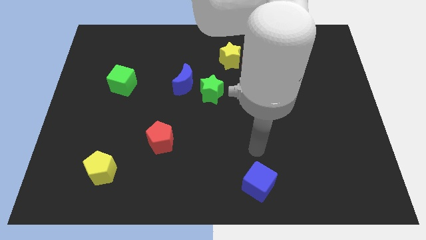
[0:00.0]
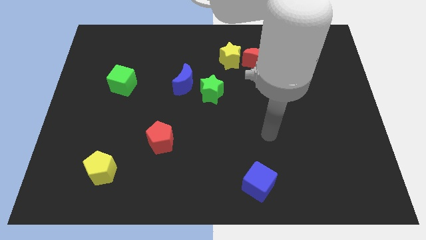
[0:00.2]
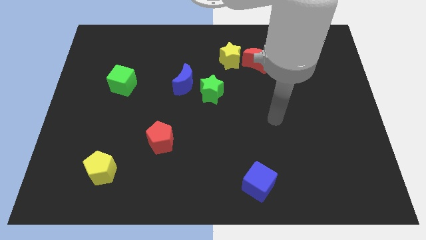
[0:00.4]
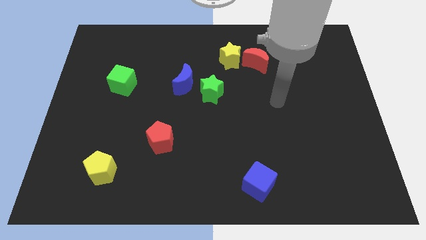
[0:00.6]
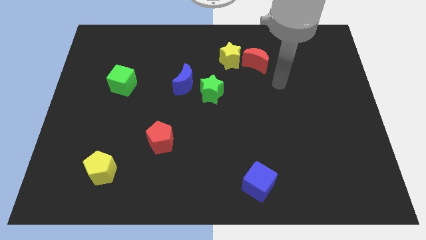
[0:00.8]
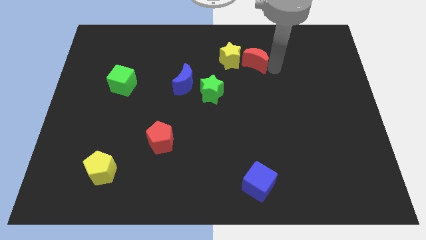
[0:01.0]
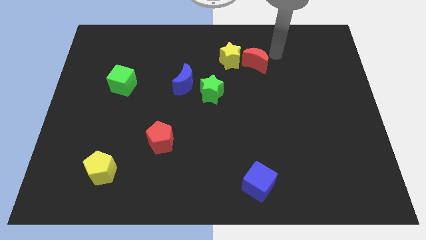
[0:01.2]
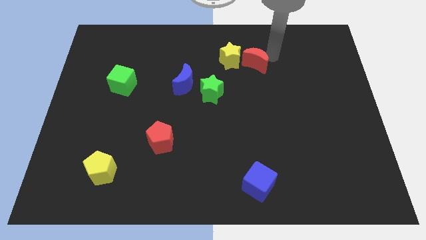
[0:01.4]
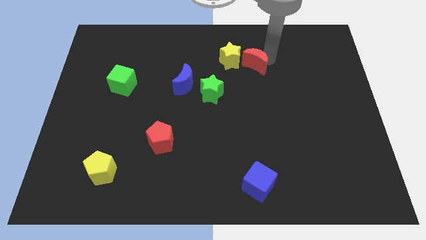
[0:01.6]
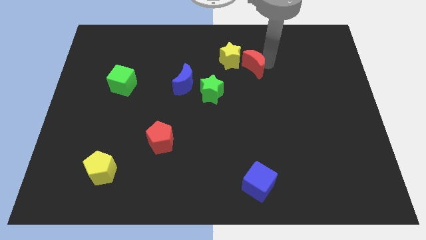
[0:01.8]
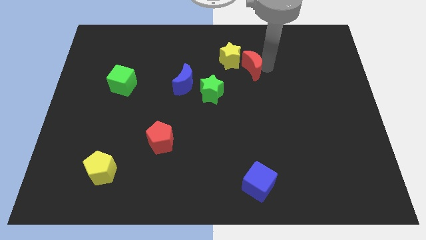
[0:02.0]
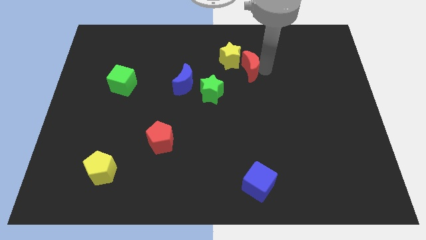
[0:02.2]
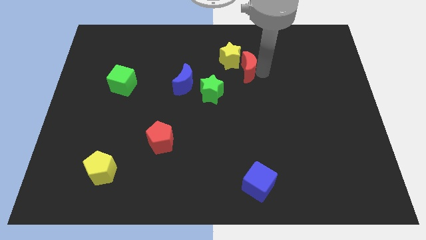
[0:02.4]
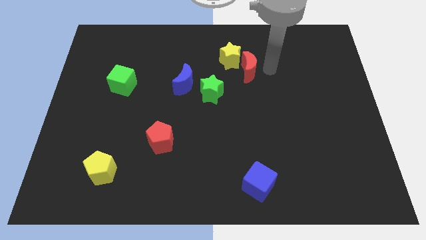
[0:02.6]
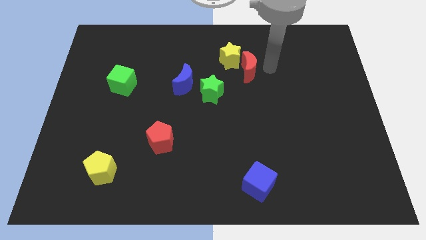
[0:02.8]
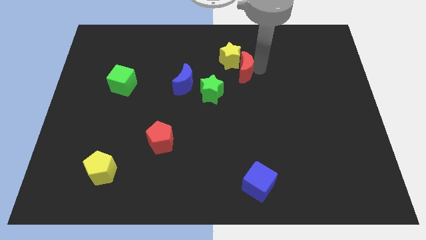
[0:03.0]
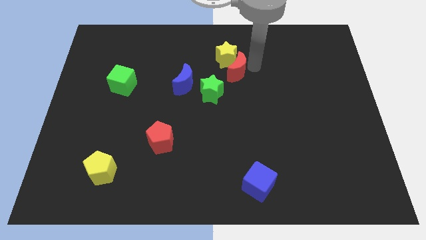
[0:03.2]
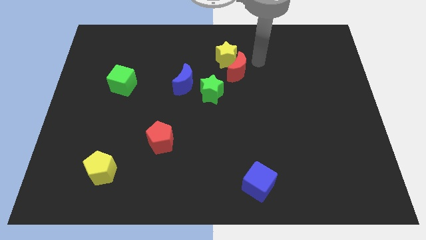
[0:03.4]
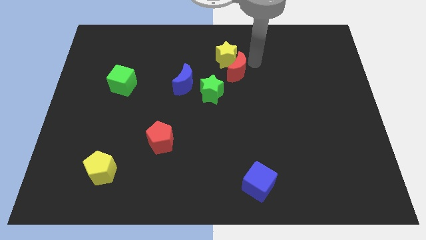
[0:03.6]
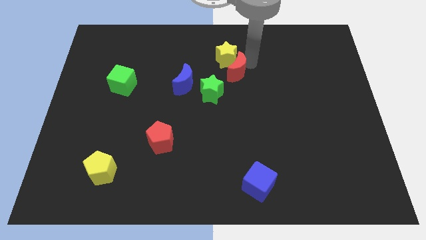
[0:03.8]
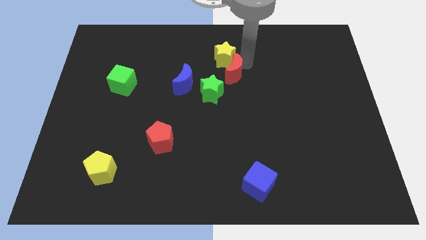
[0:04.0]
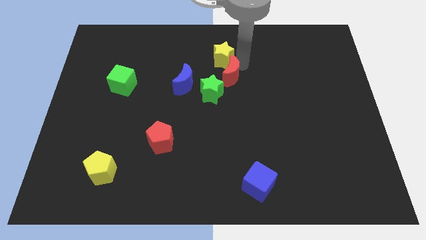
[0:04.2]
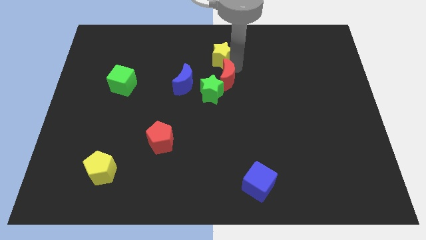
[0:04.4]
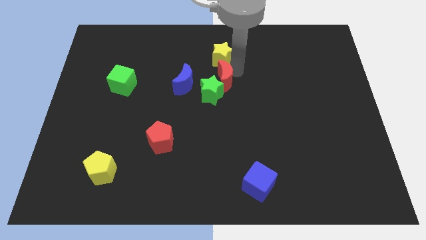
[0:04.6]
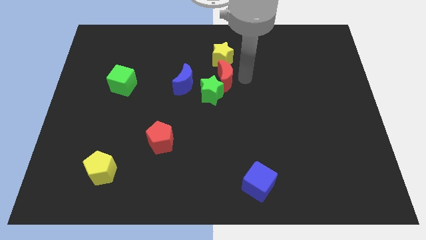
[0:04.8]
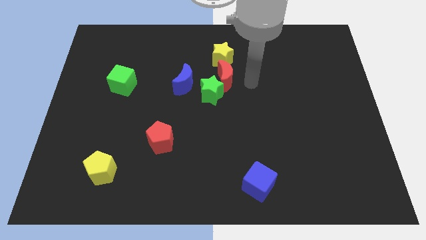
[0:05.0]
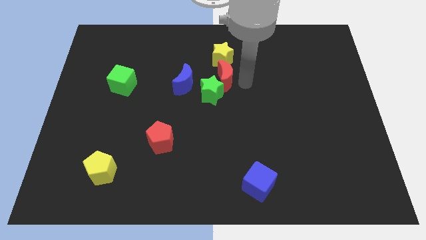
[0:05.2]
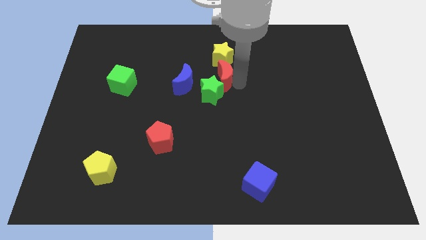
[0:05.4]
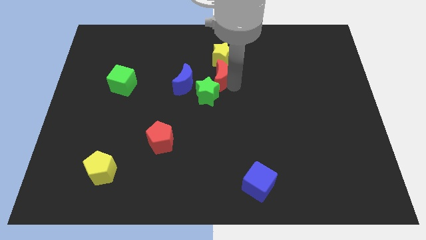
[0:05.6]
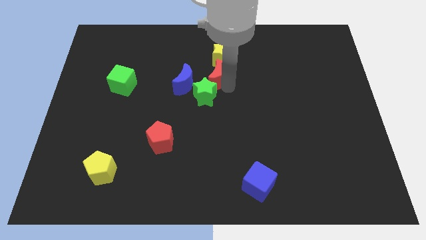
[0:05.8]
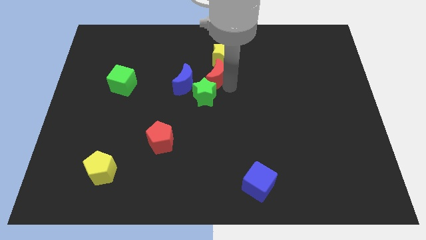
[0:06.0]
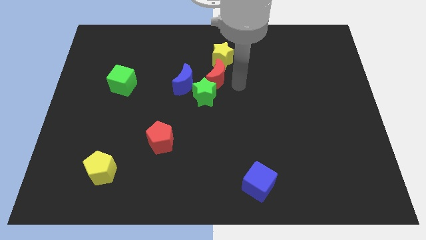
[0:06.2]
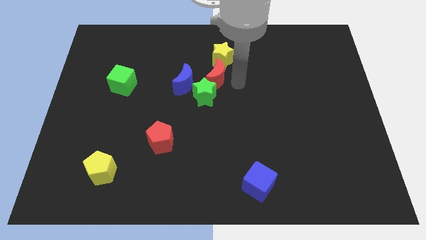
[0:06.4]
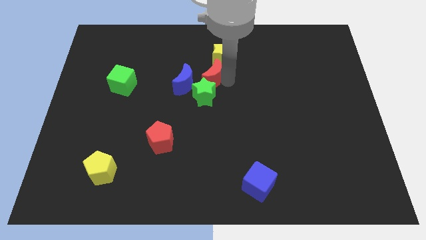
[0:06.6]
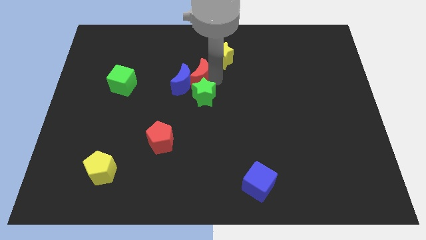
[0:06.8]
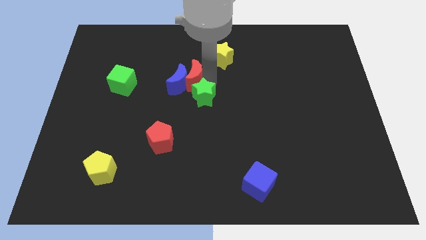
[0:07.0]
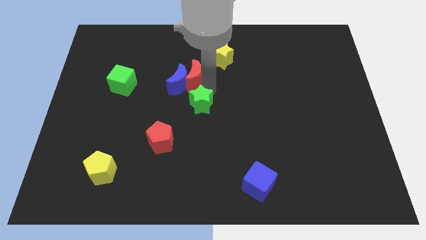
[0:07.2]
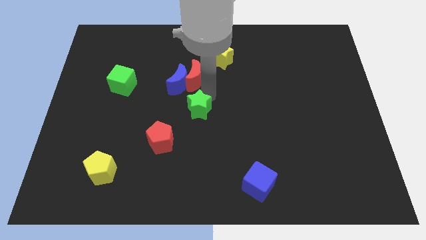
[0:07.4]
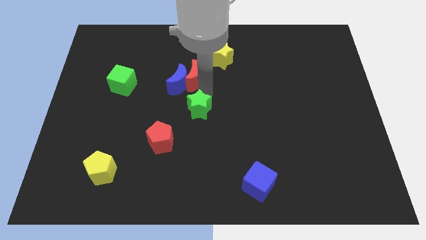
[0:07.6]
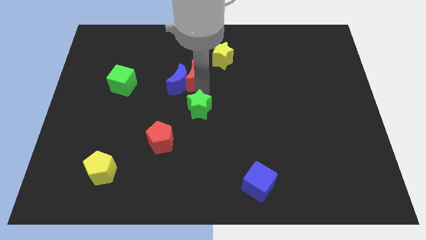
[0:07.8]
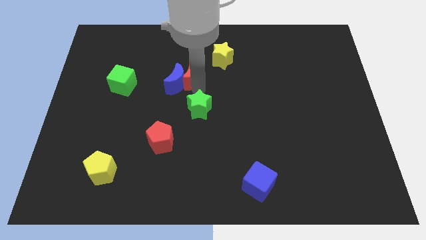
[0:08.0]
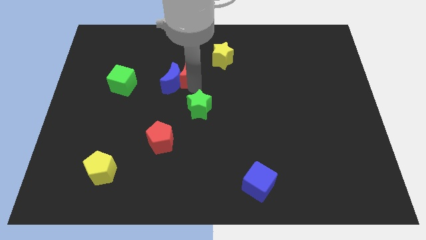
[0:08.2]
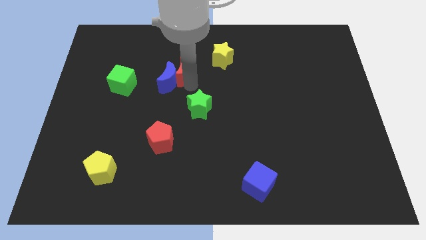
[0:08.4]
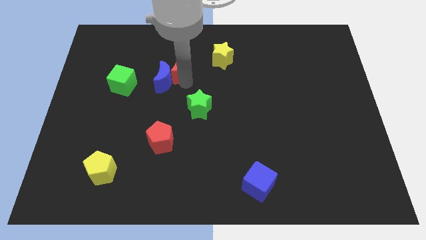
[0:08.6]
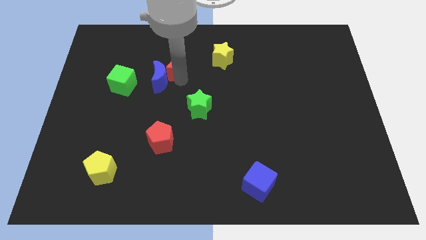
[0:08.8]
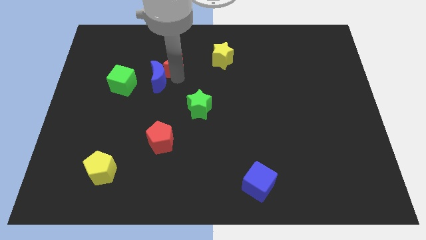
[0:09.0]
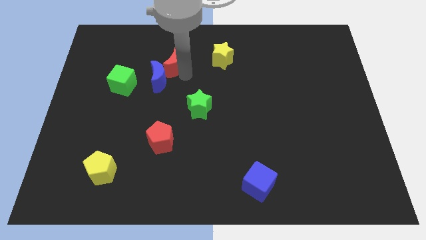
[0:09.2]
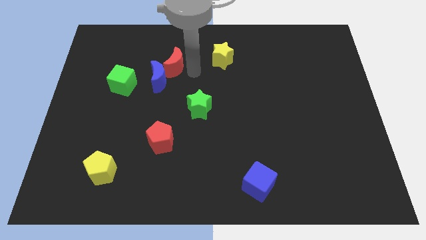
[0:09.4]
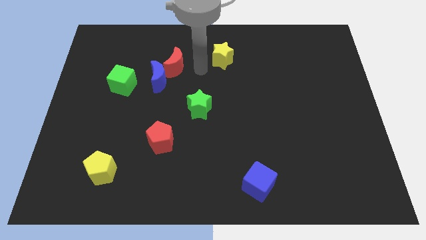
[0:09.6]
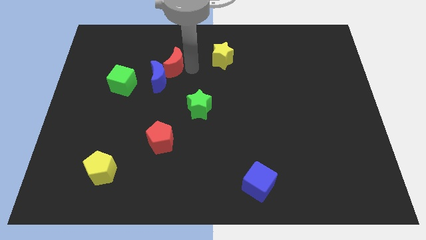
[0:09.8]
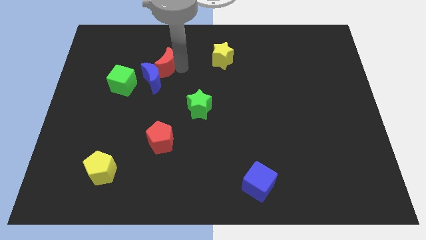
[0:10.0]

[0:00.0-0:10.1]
move the red moon diagonally up and to the right of the green cube

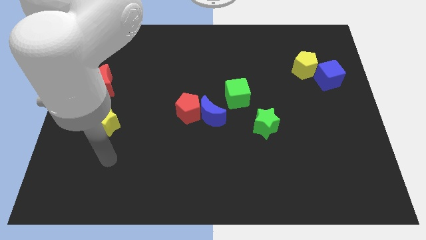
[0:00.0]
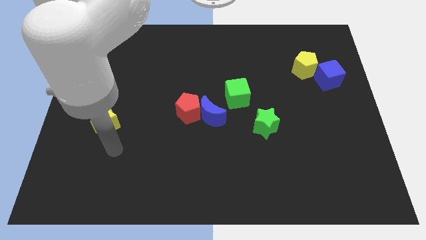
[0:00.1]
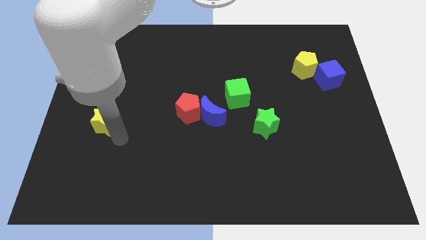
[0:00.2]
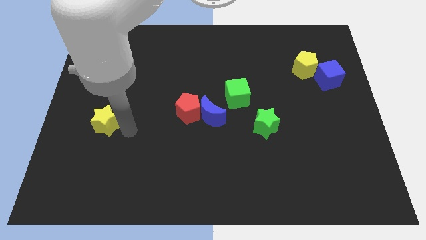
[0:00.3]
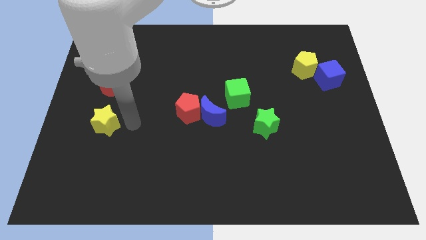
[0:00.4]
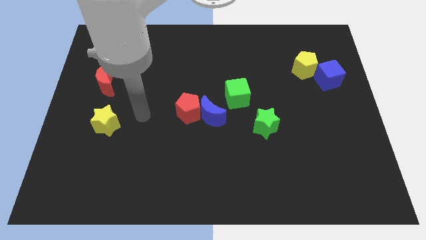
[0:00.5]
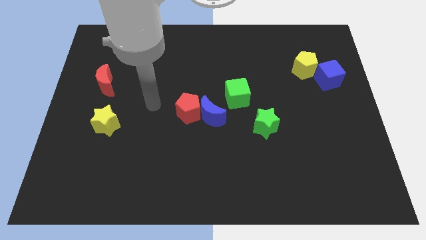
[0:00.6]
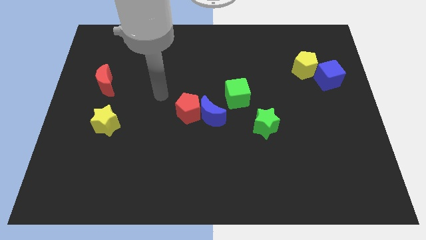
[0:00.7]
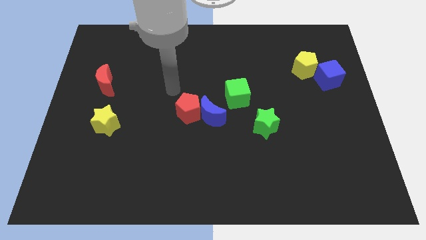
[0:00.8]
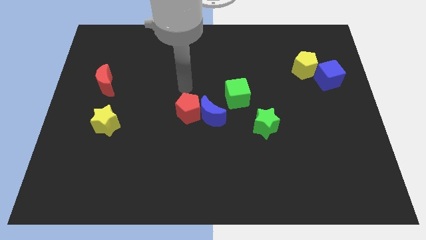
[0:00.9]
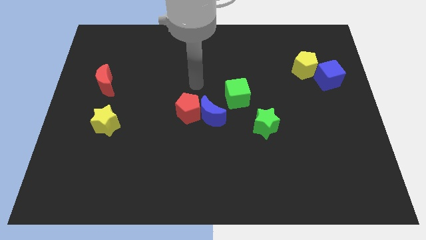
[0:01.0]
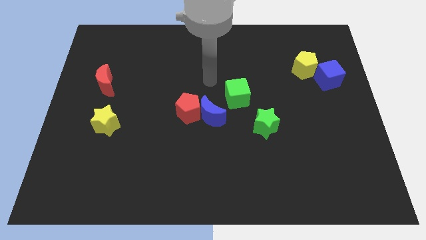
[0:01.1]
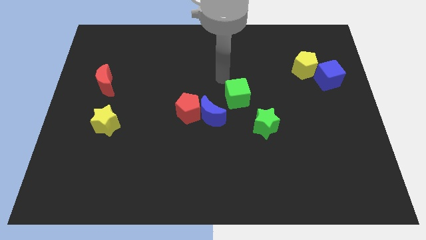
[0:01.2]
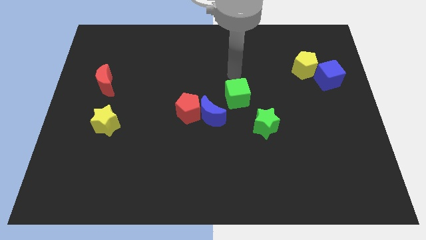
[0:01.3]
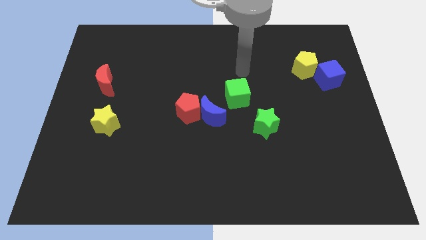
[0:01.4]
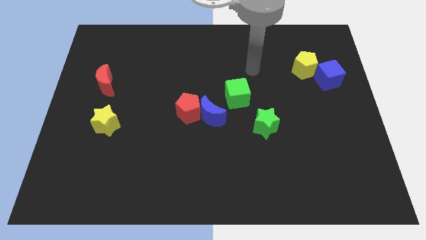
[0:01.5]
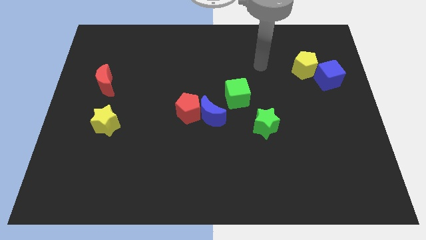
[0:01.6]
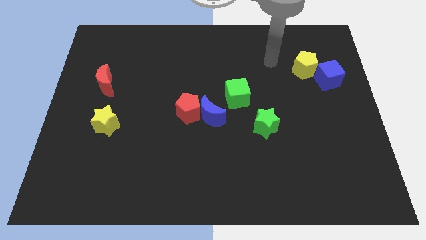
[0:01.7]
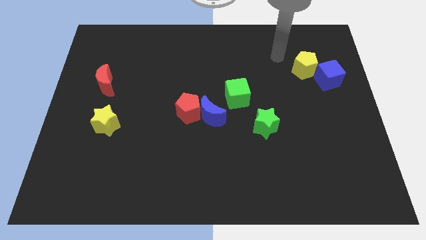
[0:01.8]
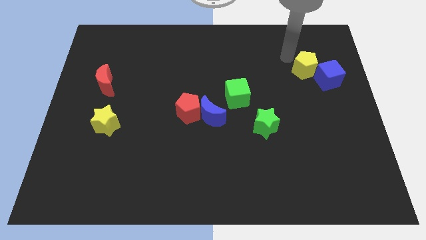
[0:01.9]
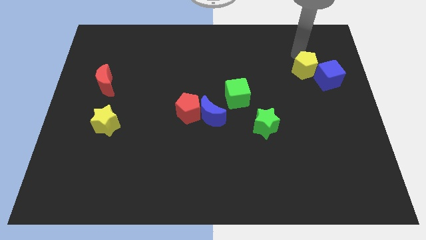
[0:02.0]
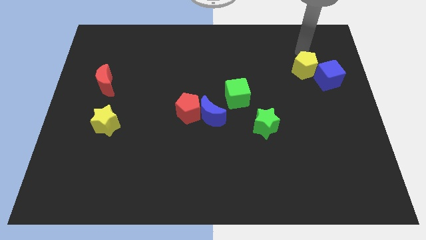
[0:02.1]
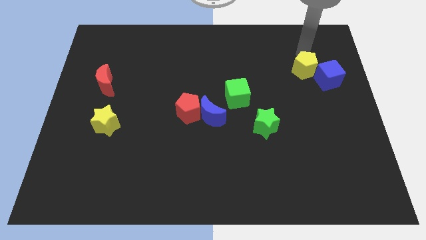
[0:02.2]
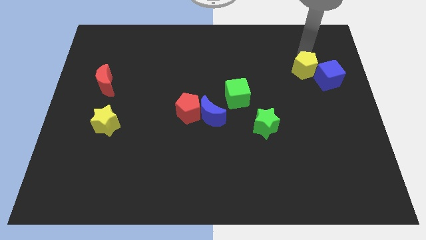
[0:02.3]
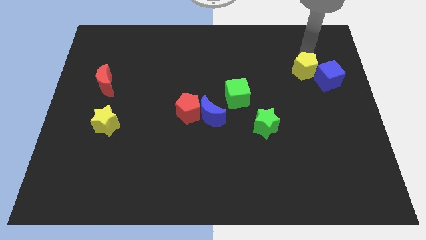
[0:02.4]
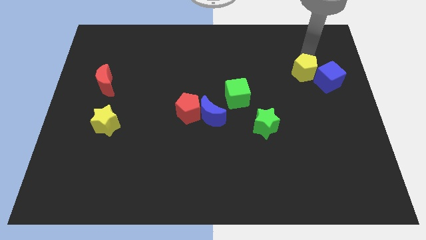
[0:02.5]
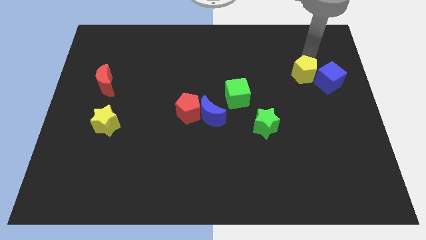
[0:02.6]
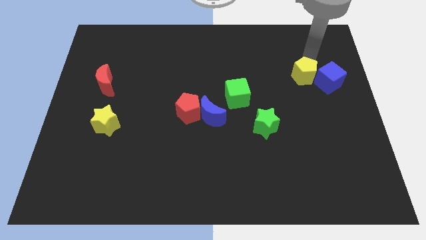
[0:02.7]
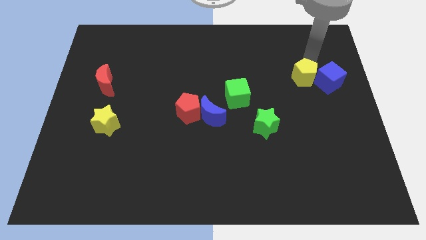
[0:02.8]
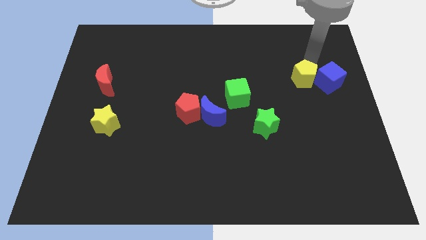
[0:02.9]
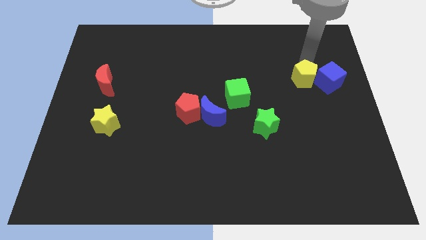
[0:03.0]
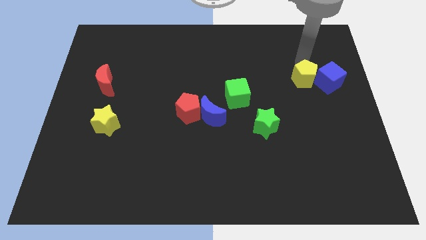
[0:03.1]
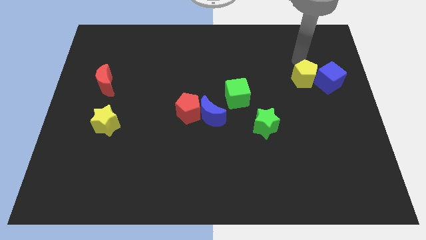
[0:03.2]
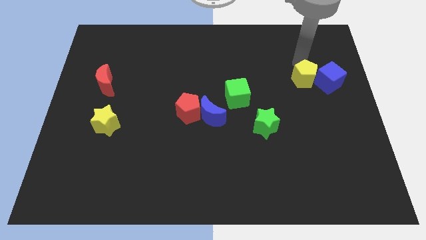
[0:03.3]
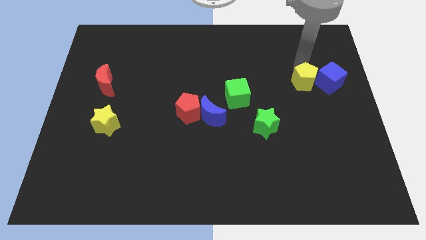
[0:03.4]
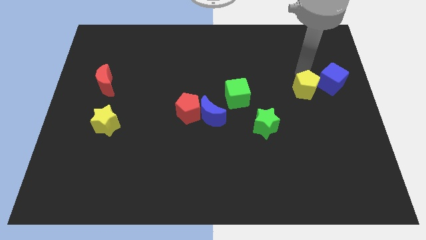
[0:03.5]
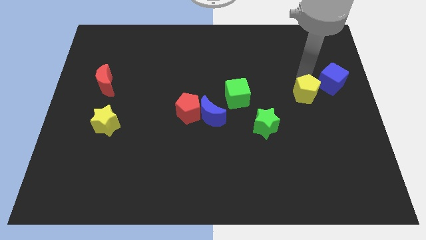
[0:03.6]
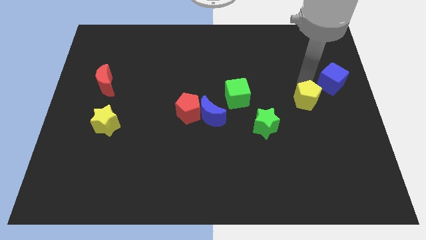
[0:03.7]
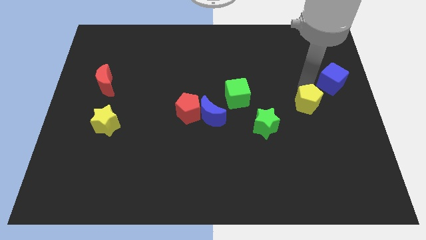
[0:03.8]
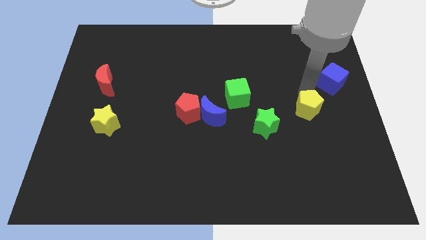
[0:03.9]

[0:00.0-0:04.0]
push the yellow pentagon right of the green star
